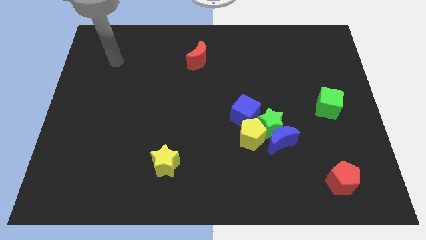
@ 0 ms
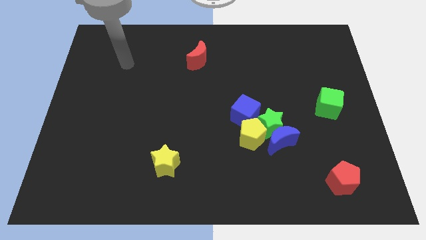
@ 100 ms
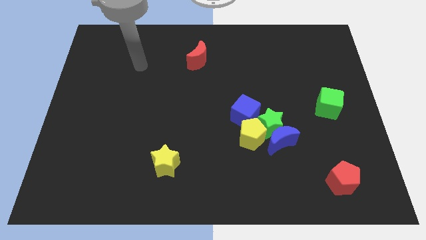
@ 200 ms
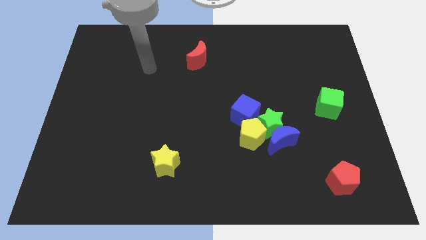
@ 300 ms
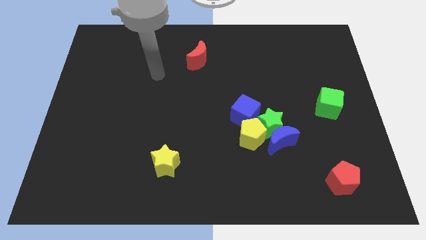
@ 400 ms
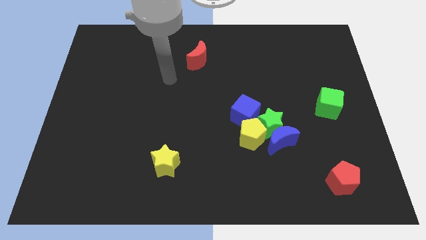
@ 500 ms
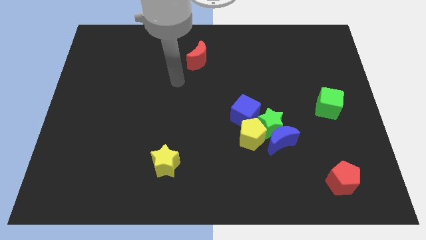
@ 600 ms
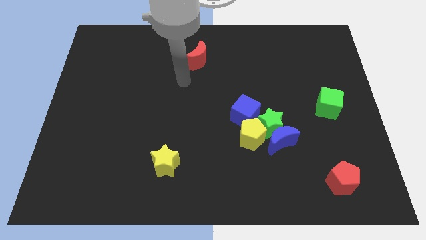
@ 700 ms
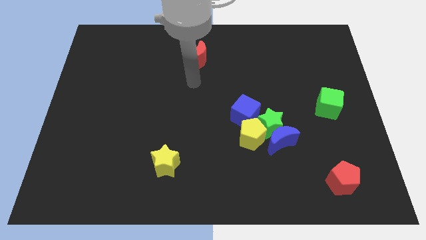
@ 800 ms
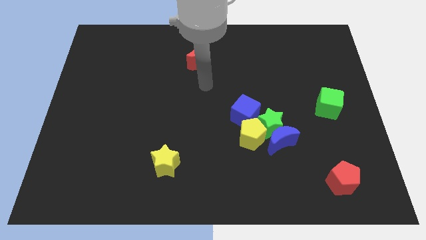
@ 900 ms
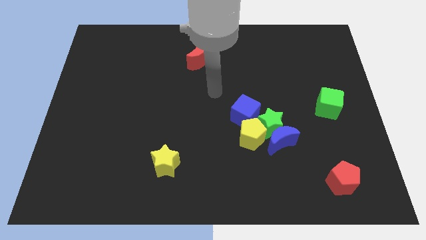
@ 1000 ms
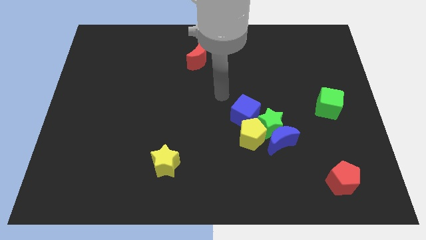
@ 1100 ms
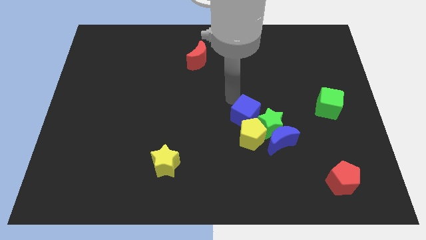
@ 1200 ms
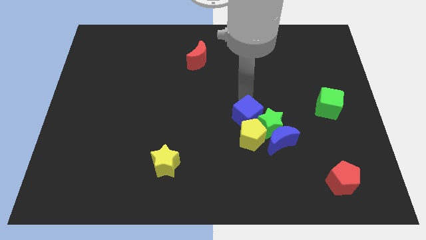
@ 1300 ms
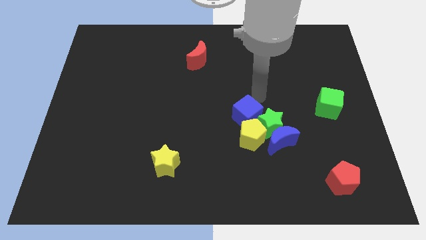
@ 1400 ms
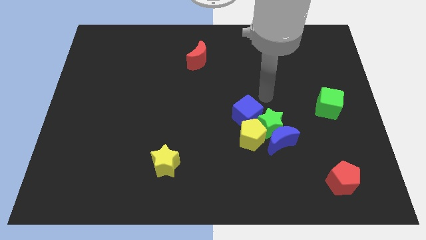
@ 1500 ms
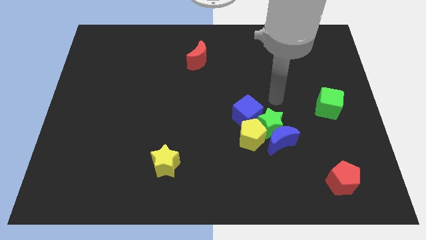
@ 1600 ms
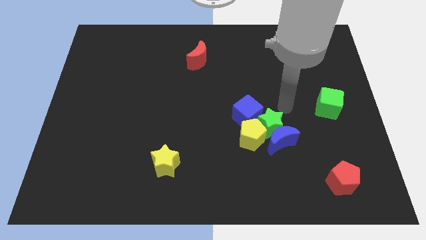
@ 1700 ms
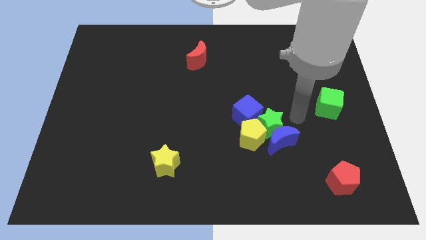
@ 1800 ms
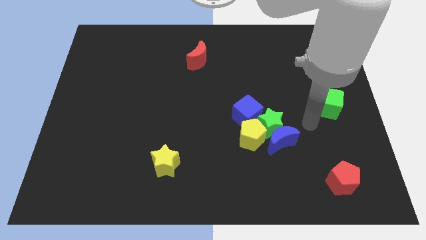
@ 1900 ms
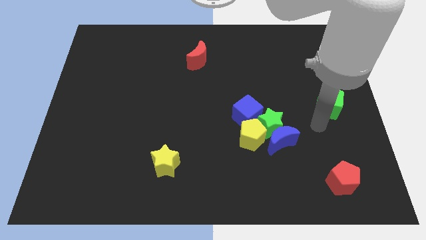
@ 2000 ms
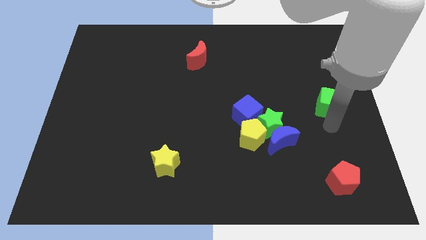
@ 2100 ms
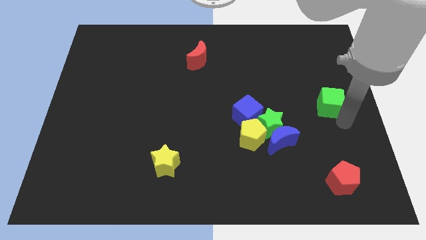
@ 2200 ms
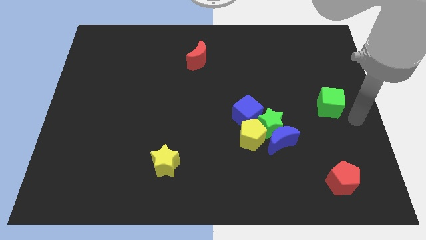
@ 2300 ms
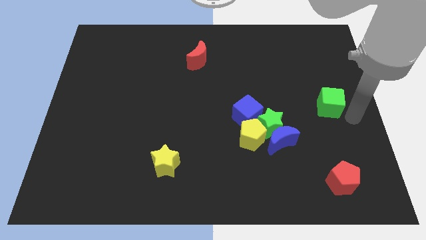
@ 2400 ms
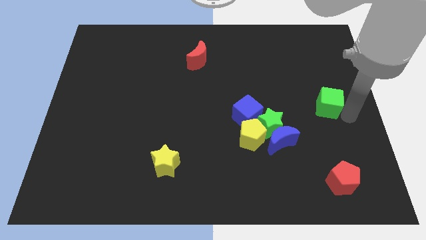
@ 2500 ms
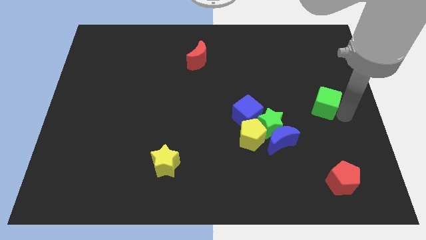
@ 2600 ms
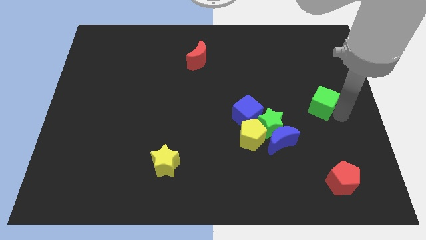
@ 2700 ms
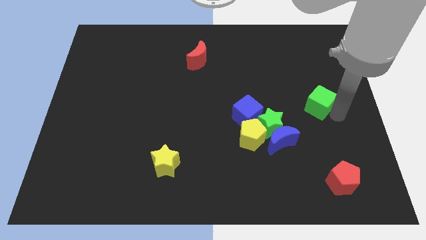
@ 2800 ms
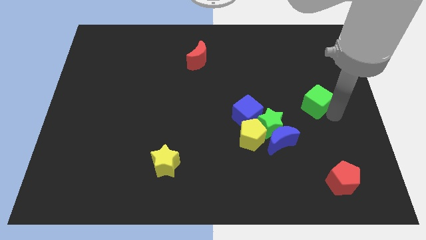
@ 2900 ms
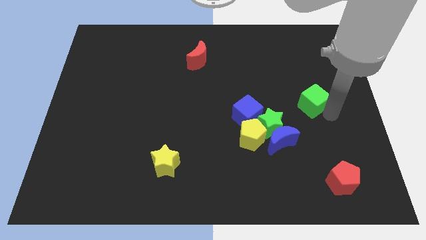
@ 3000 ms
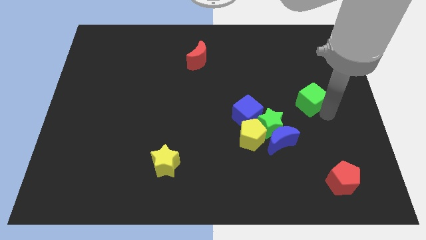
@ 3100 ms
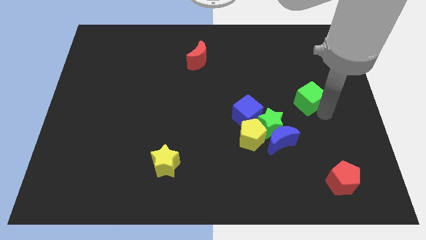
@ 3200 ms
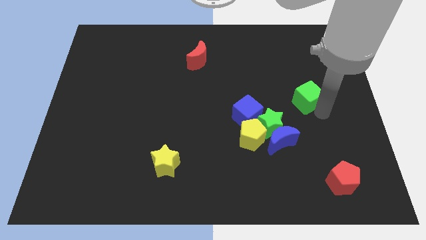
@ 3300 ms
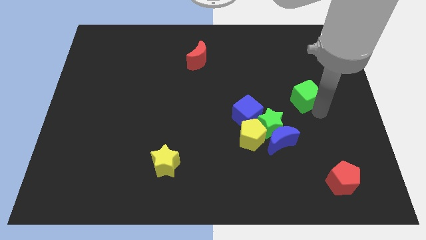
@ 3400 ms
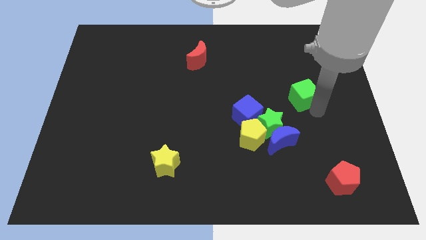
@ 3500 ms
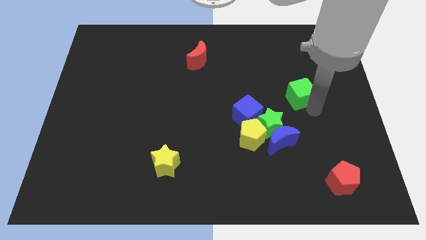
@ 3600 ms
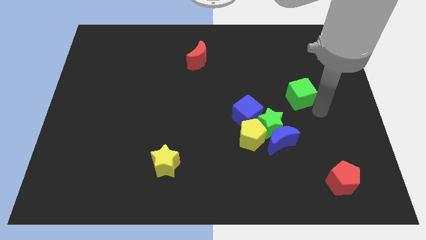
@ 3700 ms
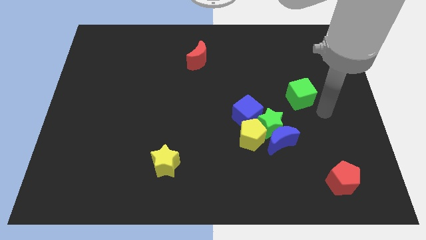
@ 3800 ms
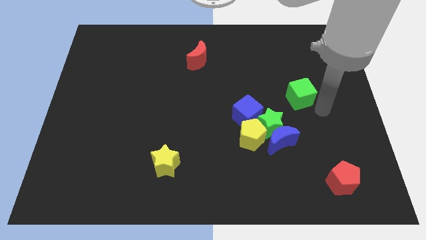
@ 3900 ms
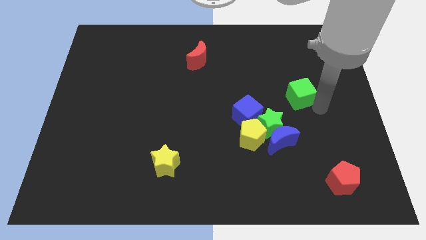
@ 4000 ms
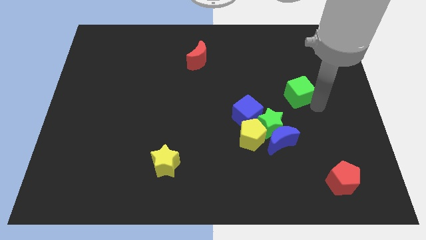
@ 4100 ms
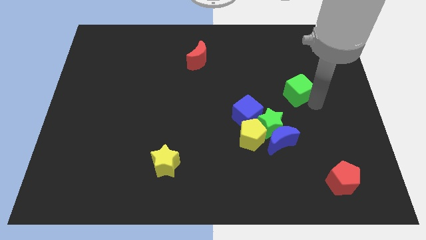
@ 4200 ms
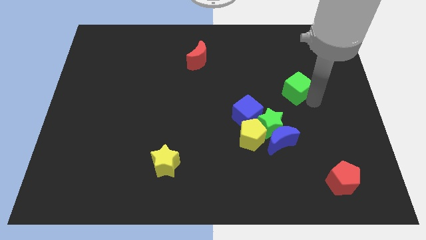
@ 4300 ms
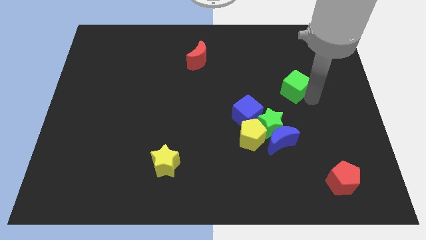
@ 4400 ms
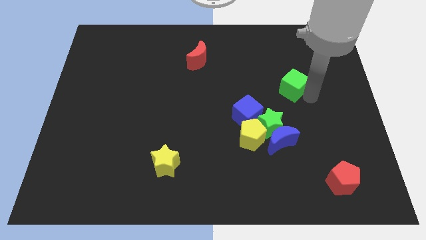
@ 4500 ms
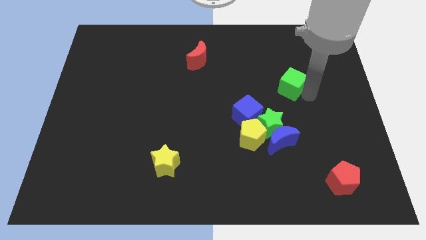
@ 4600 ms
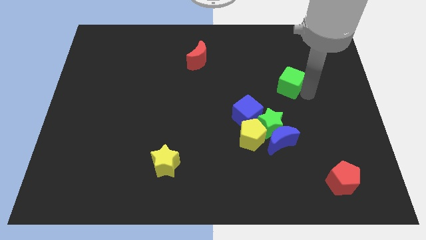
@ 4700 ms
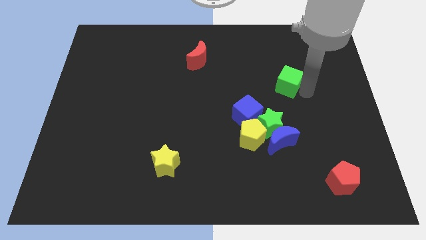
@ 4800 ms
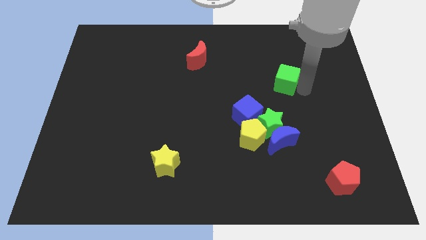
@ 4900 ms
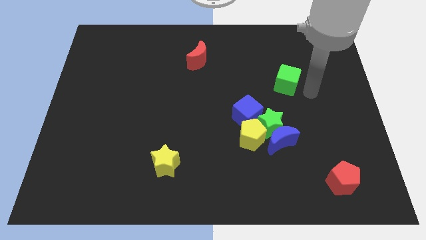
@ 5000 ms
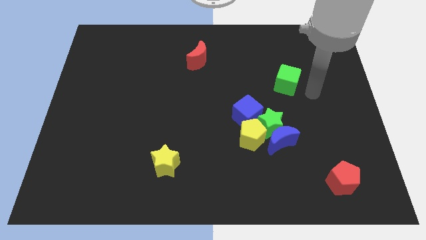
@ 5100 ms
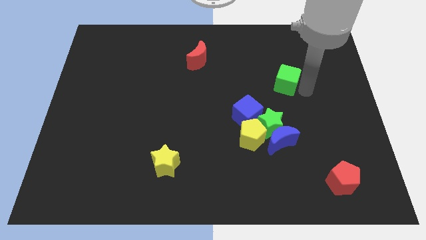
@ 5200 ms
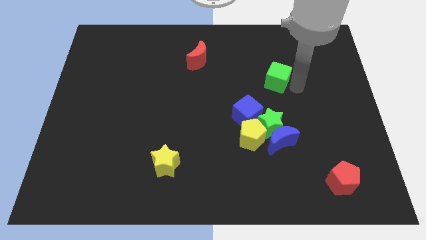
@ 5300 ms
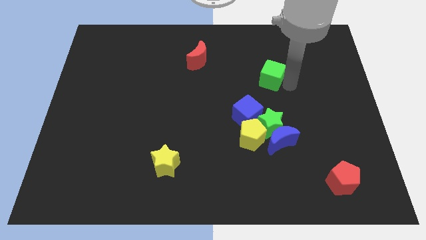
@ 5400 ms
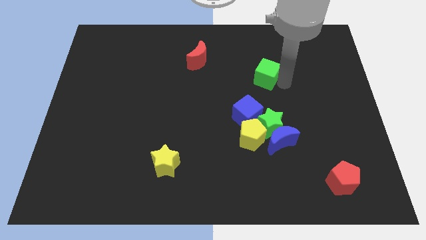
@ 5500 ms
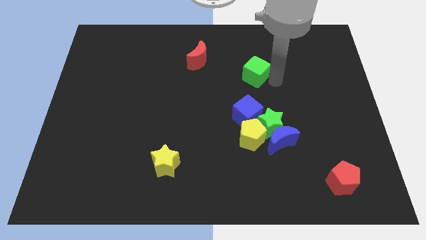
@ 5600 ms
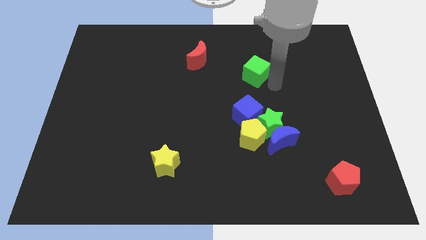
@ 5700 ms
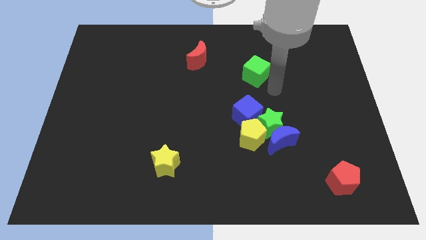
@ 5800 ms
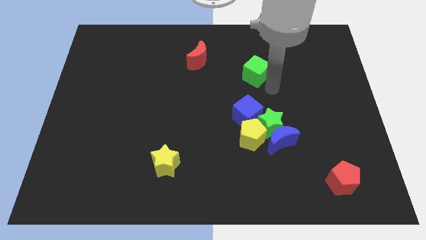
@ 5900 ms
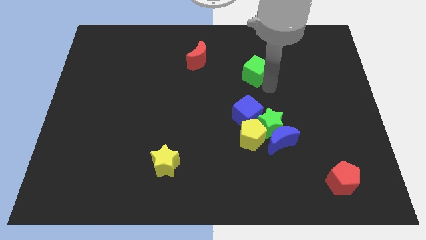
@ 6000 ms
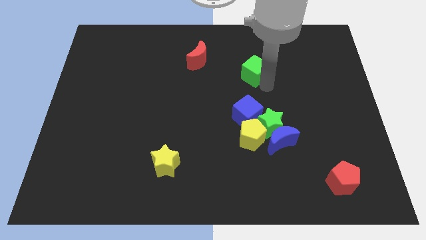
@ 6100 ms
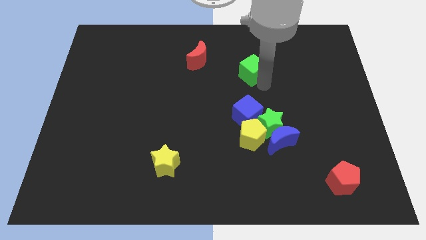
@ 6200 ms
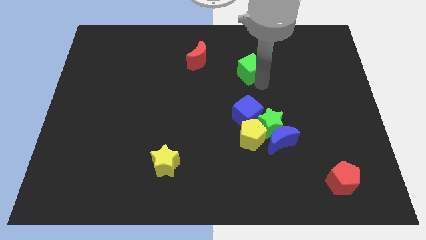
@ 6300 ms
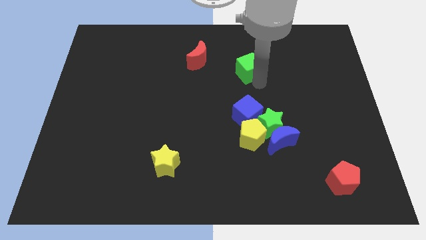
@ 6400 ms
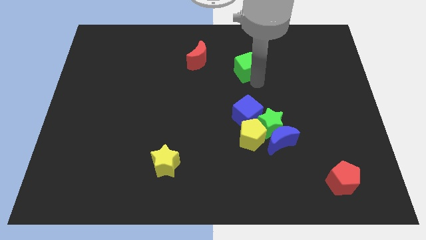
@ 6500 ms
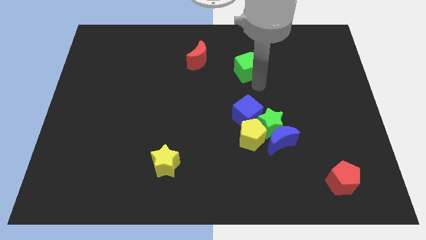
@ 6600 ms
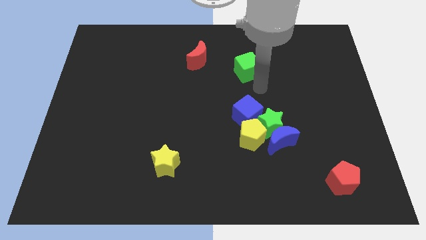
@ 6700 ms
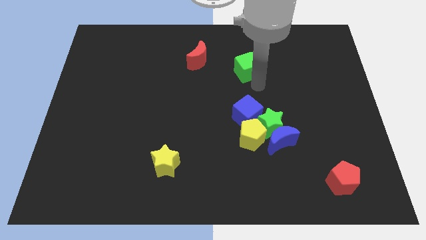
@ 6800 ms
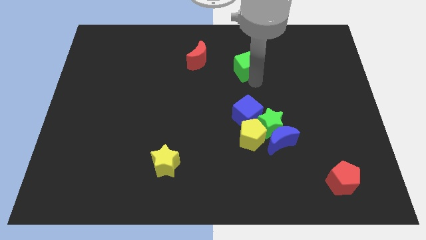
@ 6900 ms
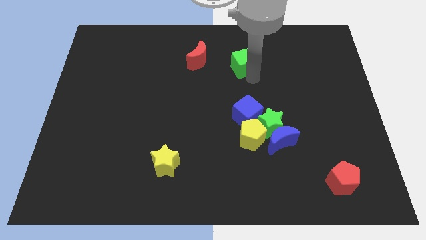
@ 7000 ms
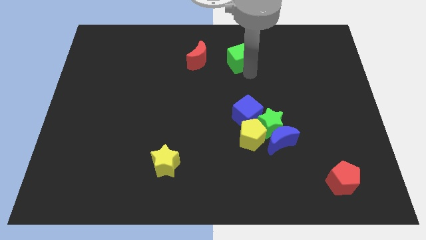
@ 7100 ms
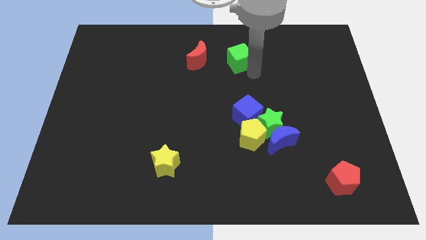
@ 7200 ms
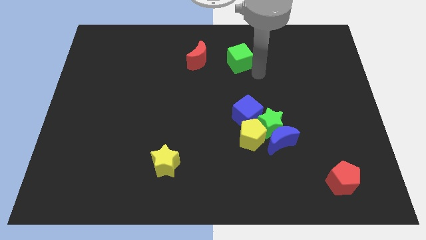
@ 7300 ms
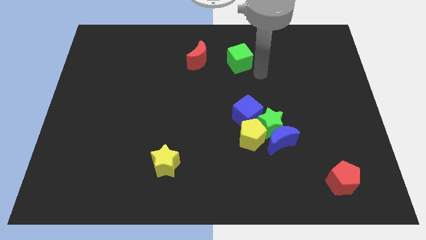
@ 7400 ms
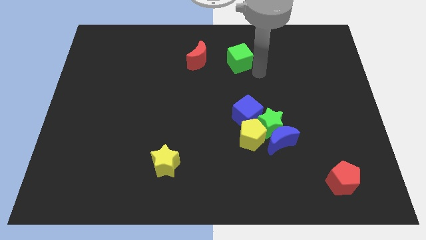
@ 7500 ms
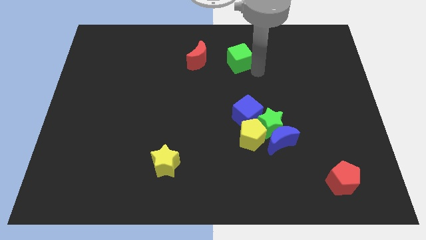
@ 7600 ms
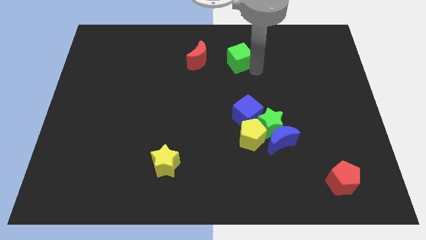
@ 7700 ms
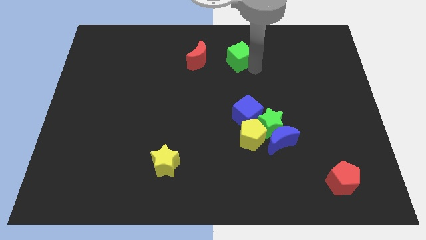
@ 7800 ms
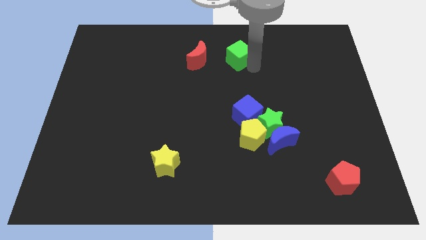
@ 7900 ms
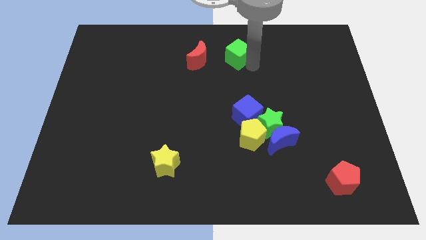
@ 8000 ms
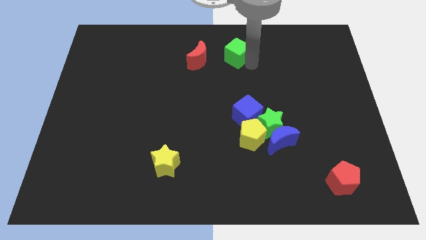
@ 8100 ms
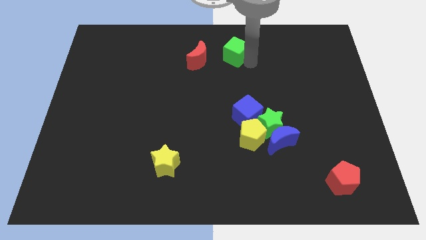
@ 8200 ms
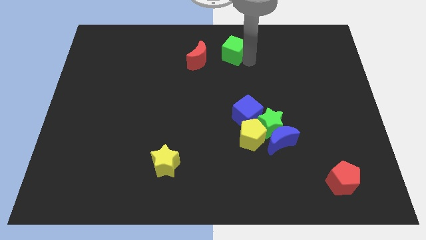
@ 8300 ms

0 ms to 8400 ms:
push the green cube to the top
